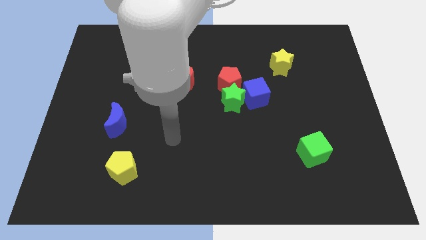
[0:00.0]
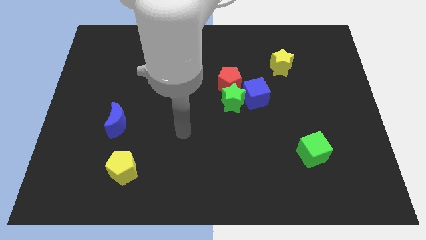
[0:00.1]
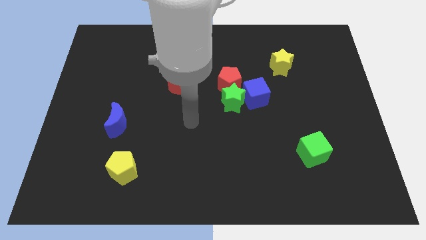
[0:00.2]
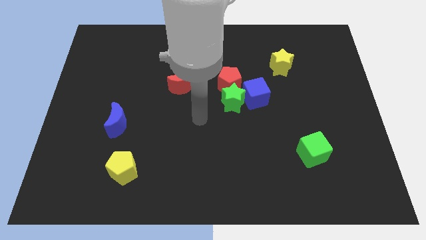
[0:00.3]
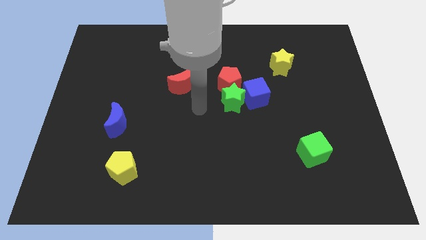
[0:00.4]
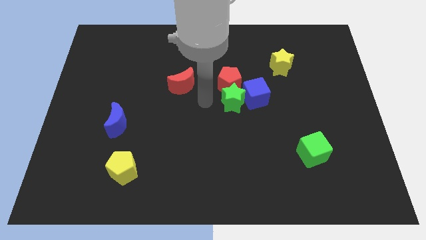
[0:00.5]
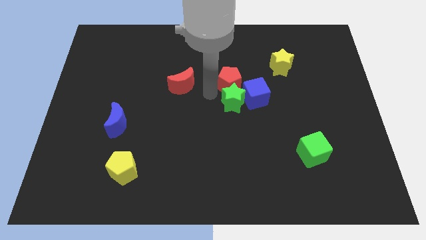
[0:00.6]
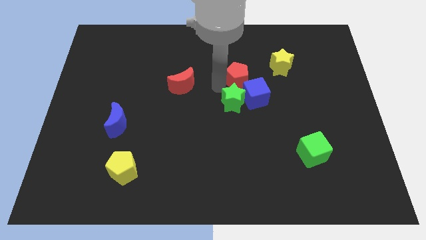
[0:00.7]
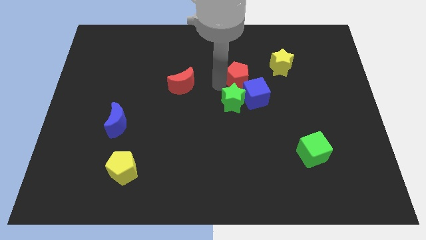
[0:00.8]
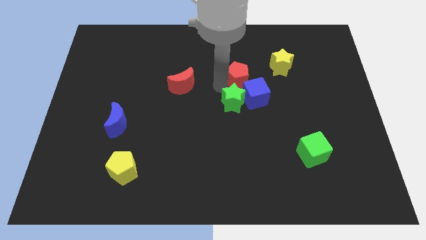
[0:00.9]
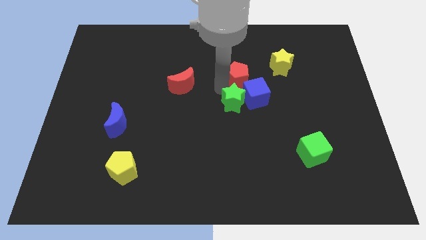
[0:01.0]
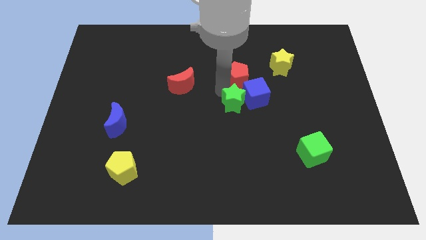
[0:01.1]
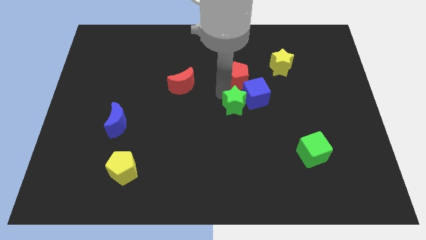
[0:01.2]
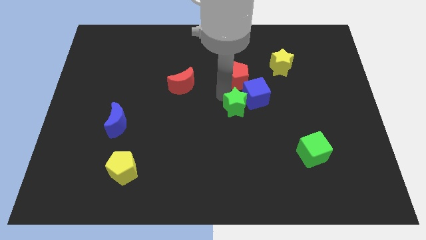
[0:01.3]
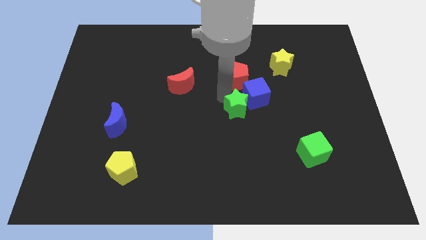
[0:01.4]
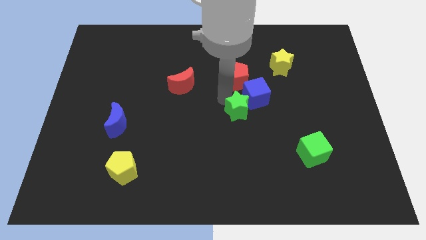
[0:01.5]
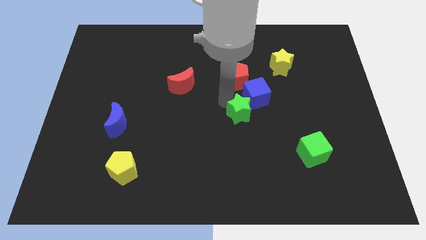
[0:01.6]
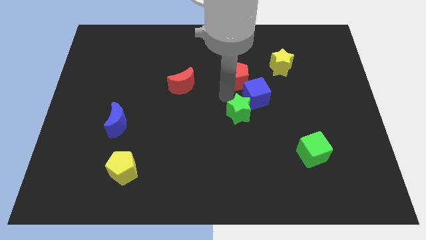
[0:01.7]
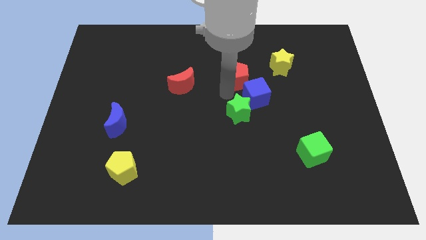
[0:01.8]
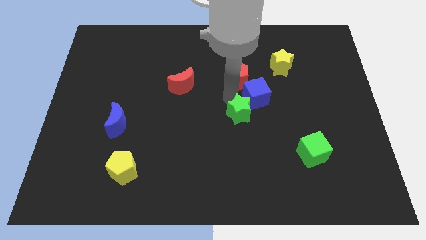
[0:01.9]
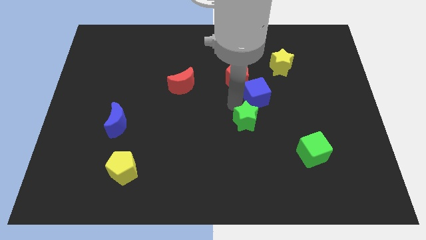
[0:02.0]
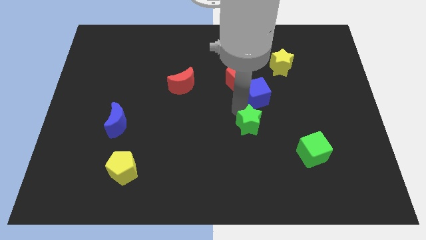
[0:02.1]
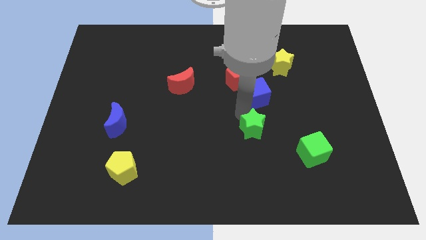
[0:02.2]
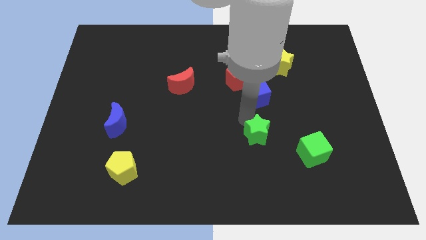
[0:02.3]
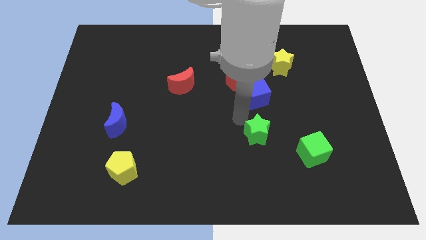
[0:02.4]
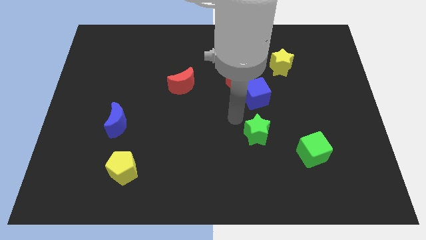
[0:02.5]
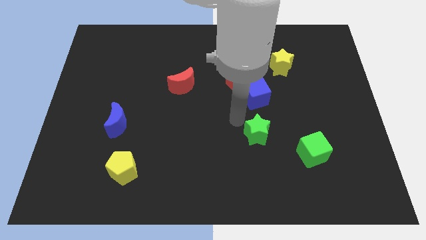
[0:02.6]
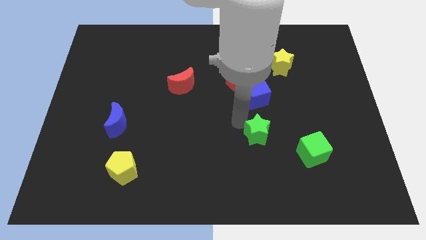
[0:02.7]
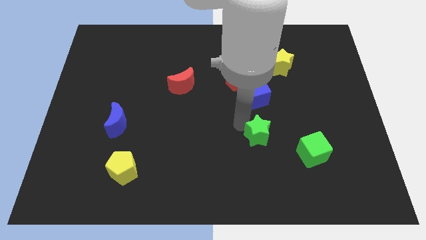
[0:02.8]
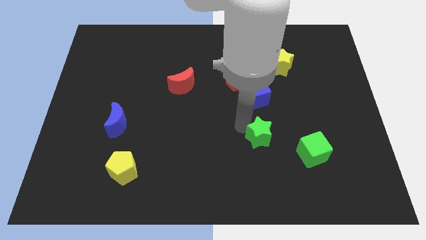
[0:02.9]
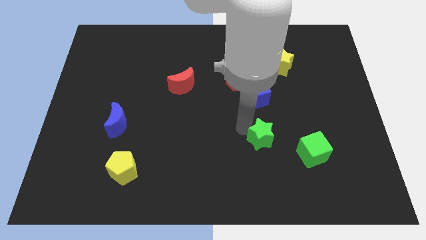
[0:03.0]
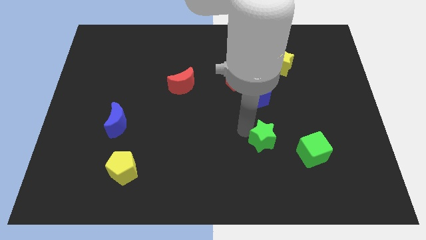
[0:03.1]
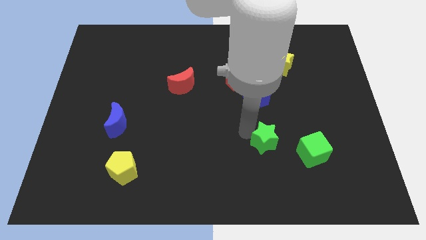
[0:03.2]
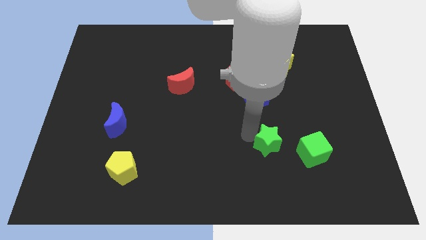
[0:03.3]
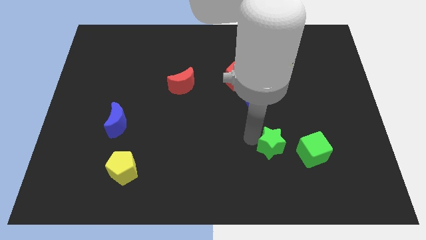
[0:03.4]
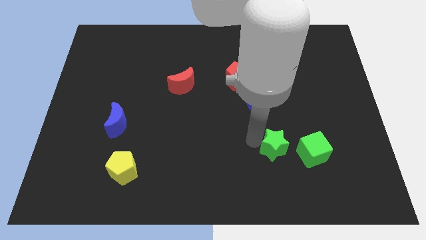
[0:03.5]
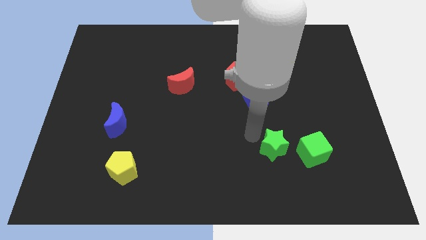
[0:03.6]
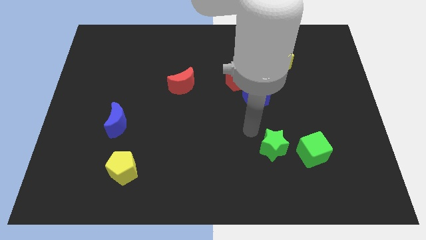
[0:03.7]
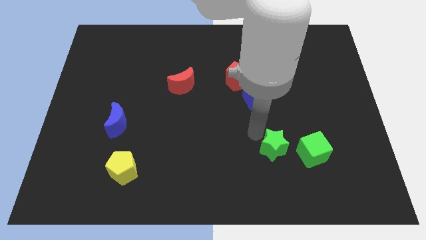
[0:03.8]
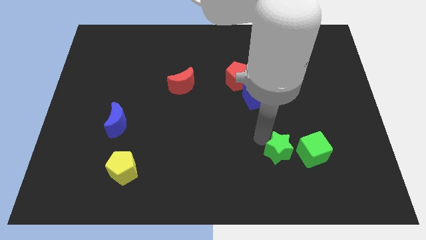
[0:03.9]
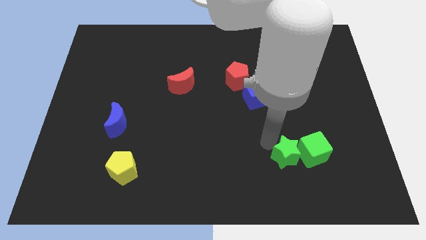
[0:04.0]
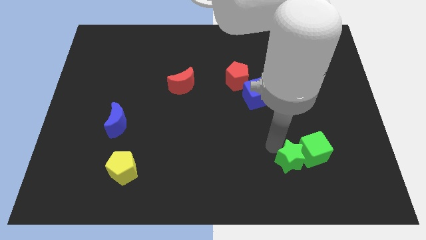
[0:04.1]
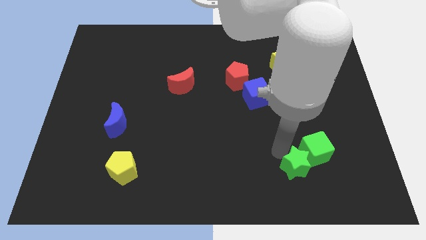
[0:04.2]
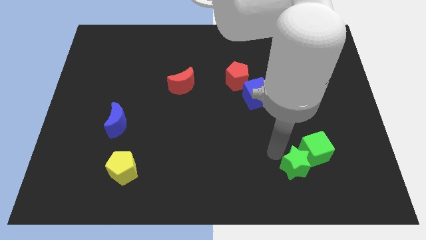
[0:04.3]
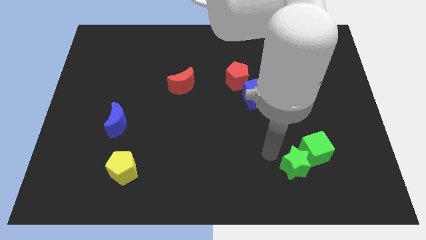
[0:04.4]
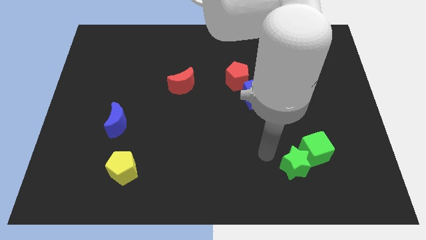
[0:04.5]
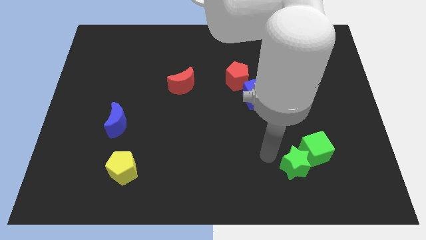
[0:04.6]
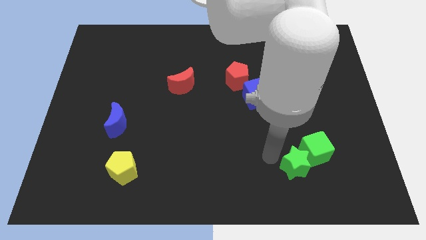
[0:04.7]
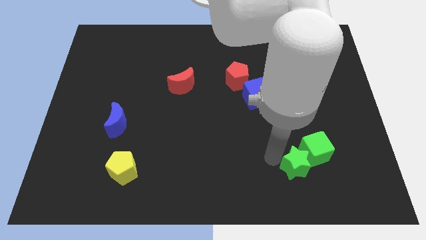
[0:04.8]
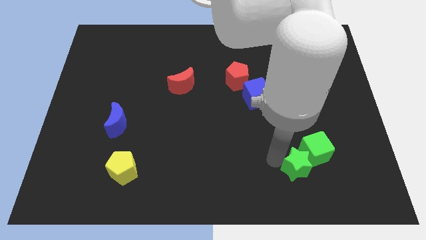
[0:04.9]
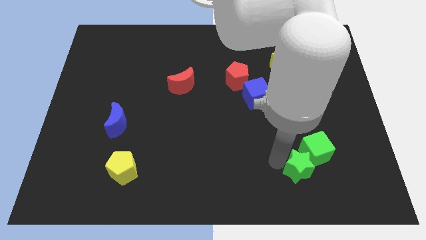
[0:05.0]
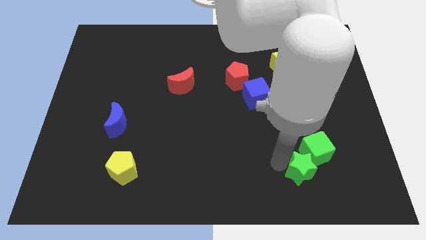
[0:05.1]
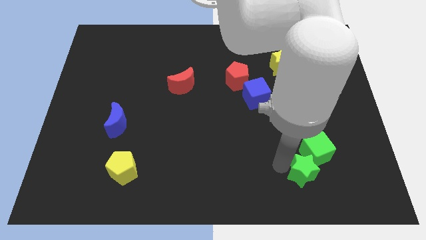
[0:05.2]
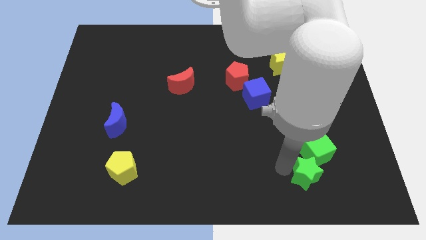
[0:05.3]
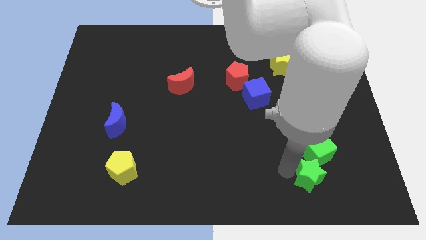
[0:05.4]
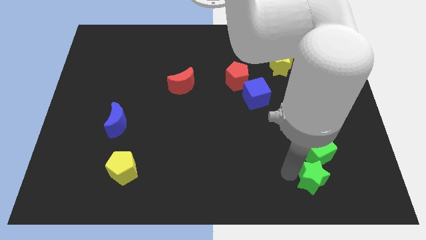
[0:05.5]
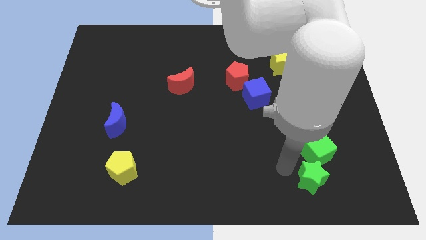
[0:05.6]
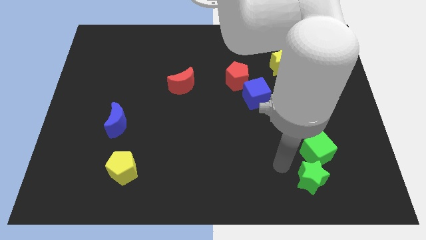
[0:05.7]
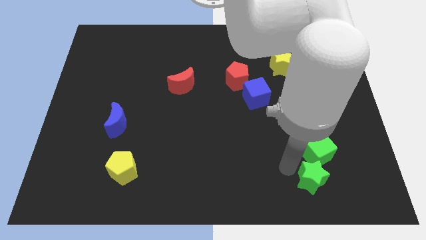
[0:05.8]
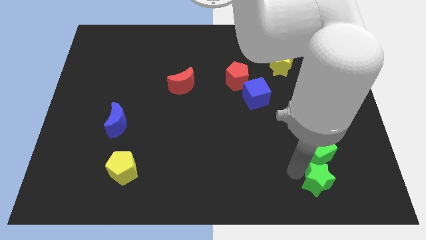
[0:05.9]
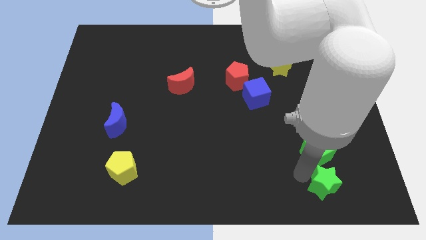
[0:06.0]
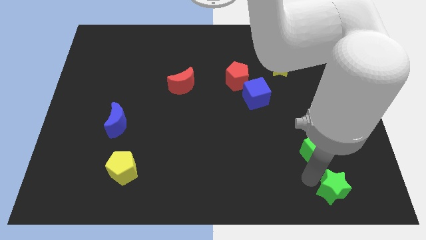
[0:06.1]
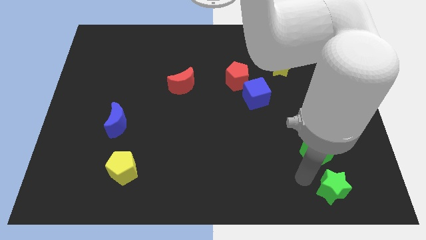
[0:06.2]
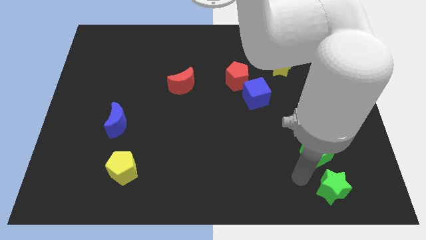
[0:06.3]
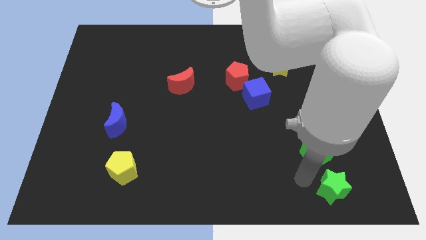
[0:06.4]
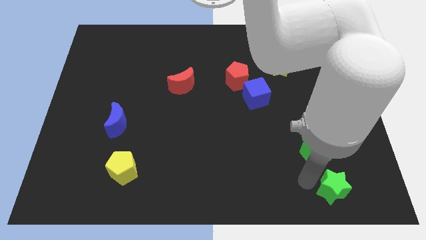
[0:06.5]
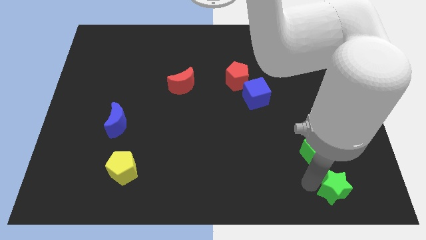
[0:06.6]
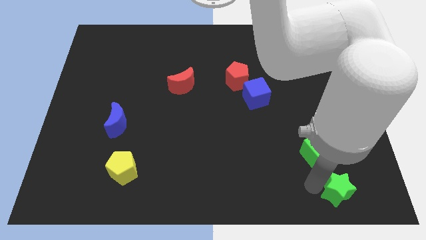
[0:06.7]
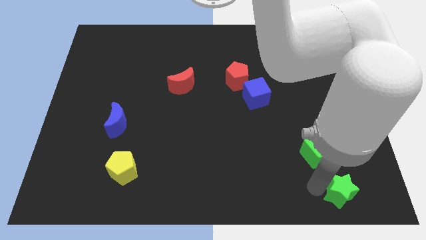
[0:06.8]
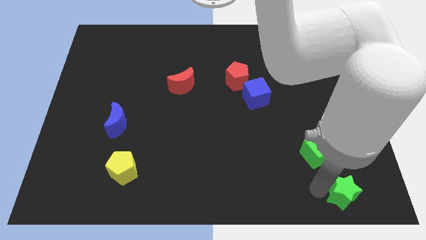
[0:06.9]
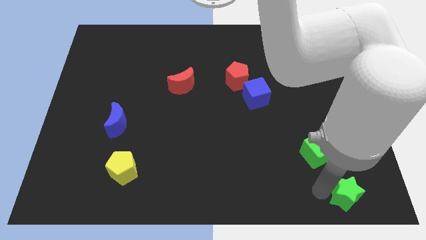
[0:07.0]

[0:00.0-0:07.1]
slide the green star to the bottom right of the board
